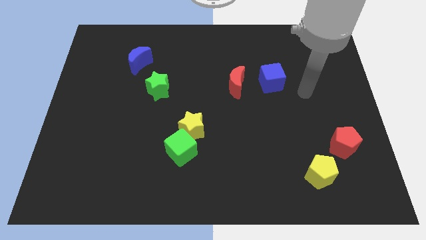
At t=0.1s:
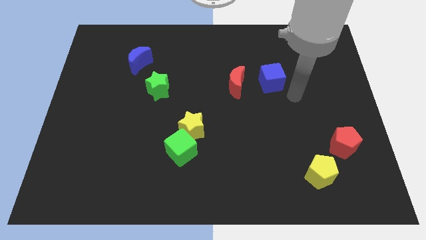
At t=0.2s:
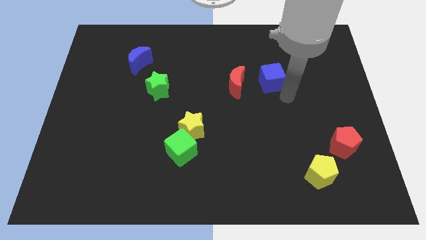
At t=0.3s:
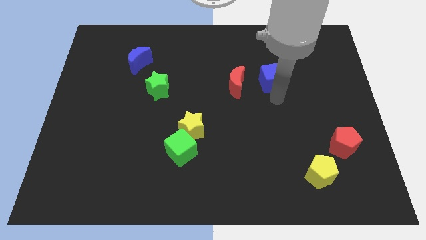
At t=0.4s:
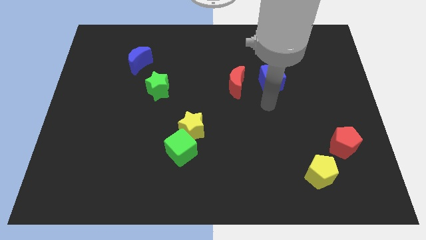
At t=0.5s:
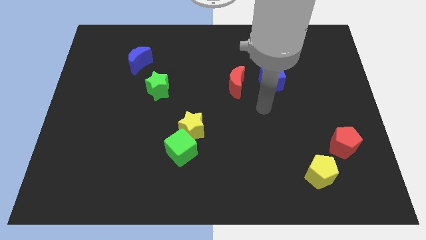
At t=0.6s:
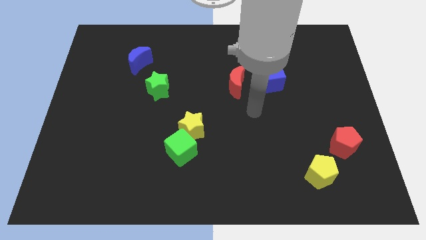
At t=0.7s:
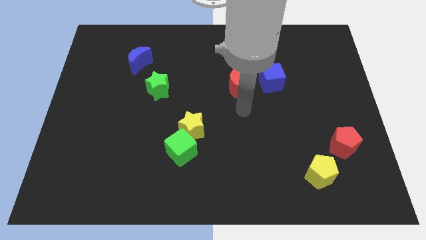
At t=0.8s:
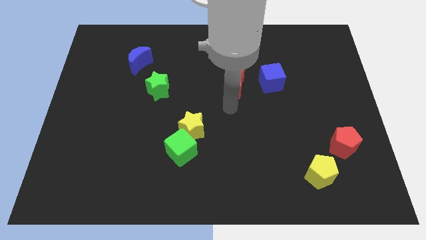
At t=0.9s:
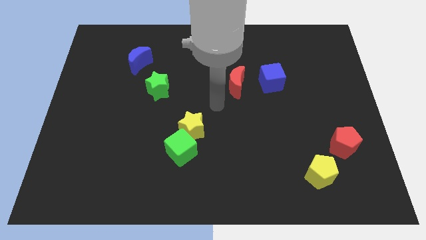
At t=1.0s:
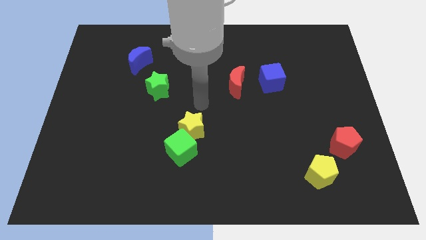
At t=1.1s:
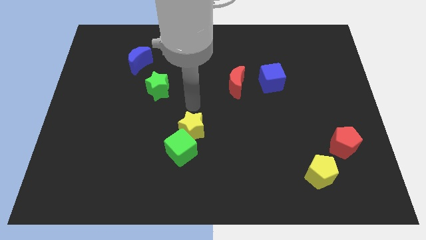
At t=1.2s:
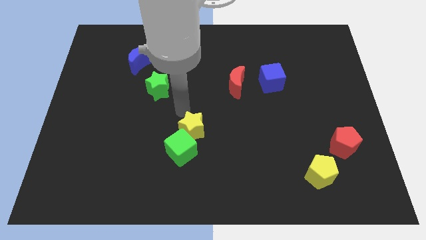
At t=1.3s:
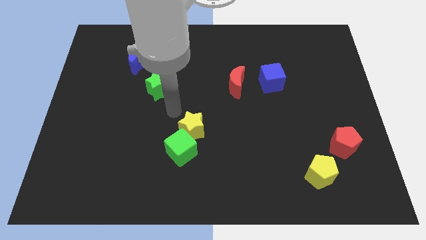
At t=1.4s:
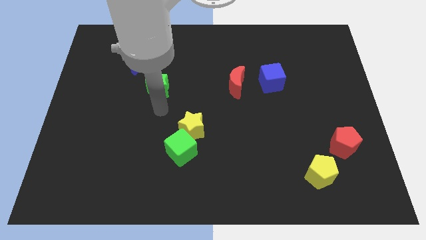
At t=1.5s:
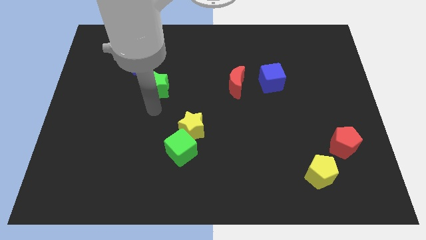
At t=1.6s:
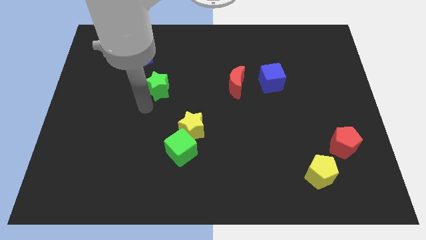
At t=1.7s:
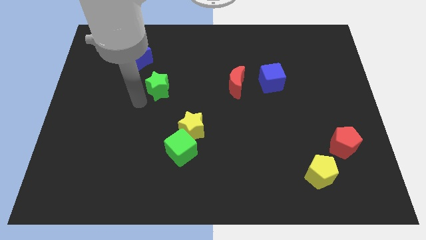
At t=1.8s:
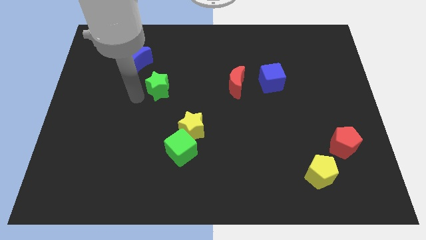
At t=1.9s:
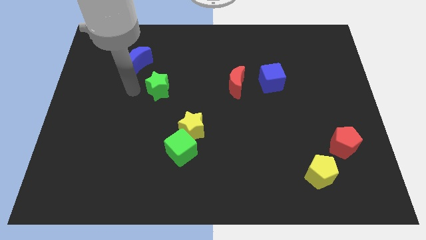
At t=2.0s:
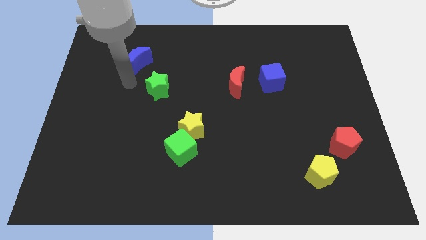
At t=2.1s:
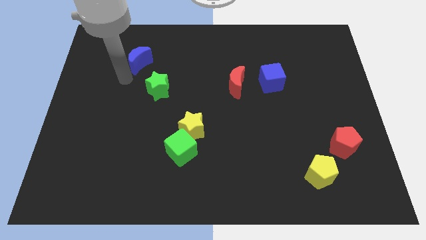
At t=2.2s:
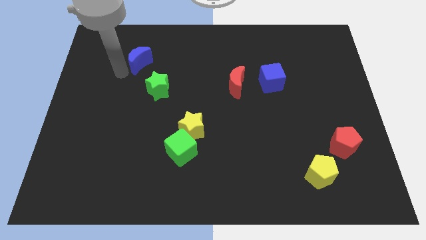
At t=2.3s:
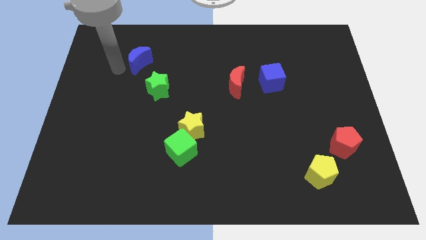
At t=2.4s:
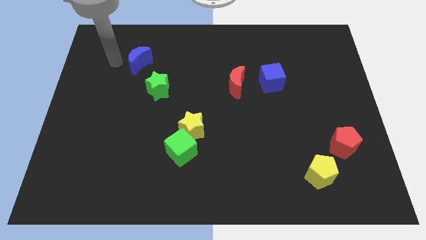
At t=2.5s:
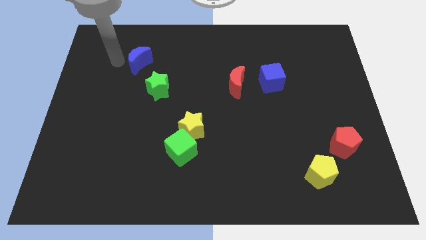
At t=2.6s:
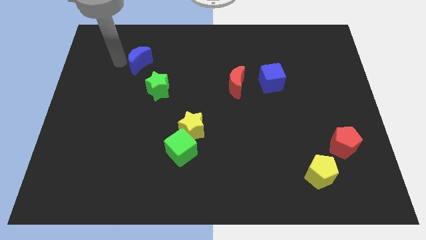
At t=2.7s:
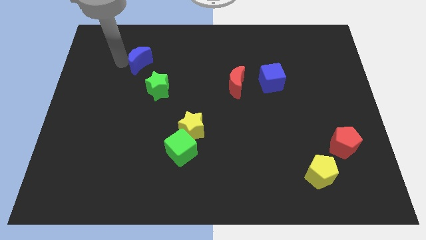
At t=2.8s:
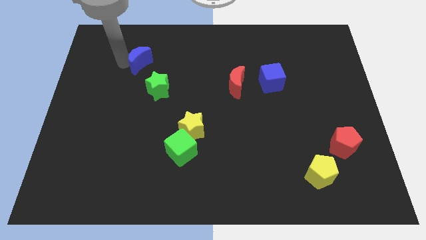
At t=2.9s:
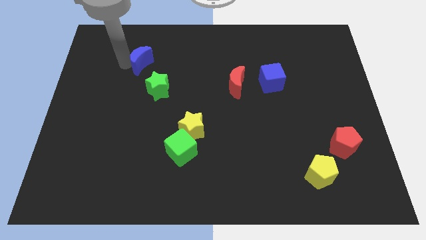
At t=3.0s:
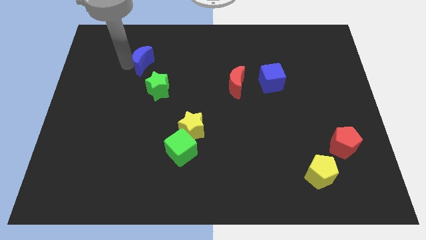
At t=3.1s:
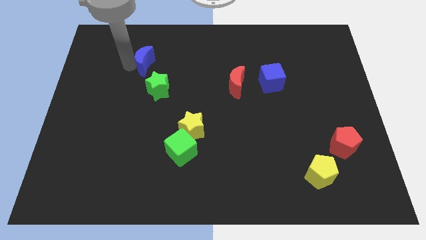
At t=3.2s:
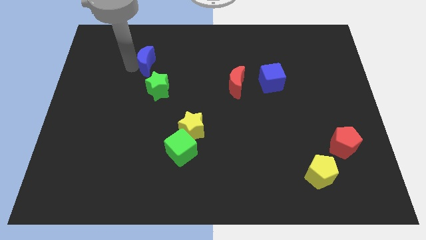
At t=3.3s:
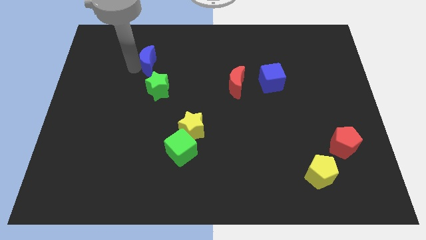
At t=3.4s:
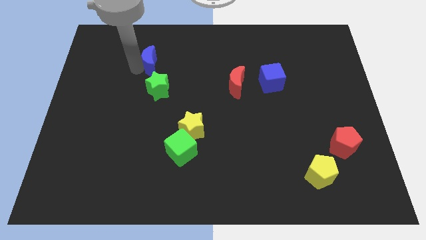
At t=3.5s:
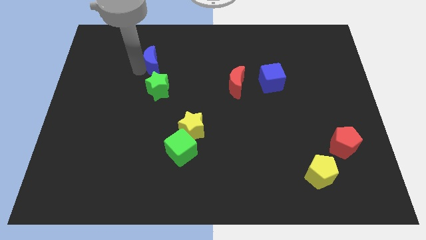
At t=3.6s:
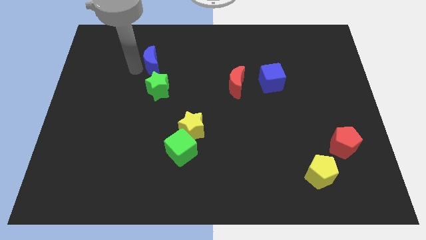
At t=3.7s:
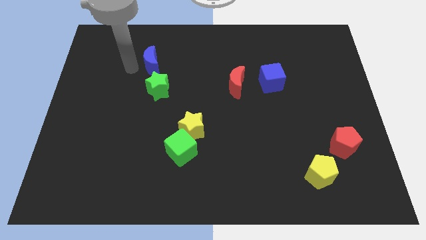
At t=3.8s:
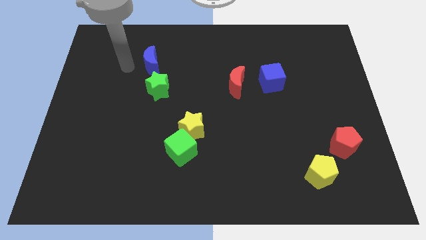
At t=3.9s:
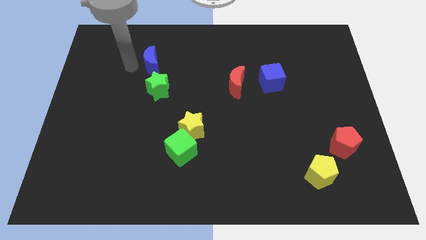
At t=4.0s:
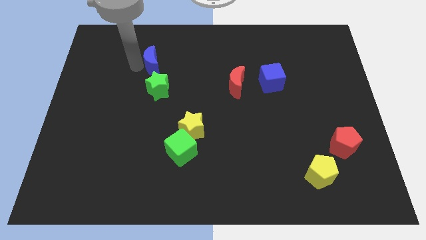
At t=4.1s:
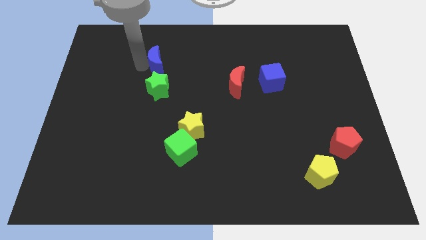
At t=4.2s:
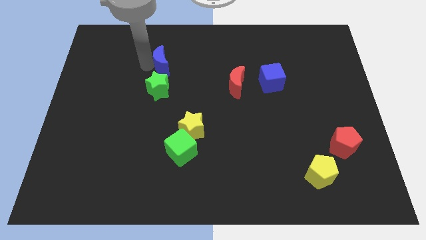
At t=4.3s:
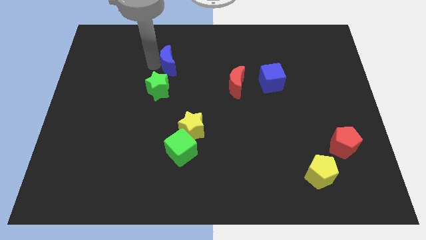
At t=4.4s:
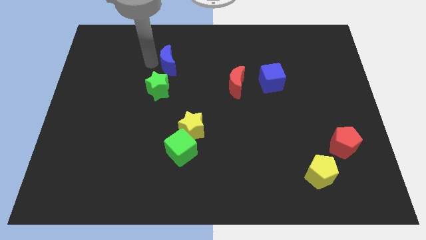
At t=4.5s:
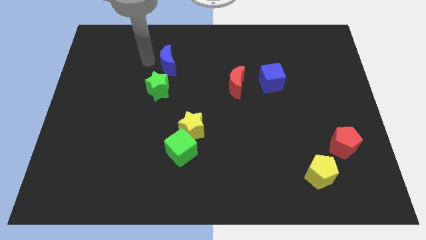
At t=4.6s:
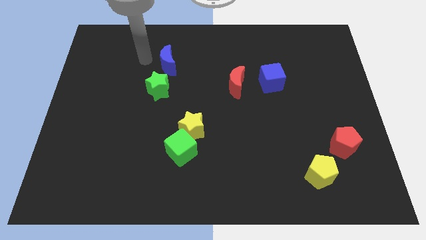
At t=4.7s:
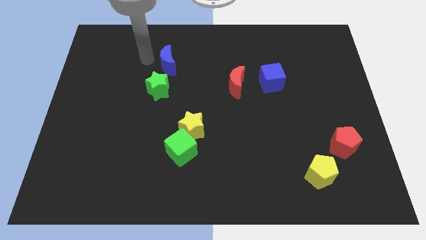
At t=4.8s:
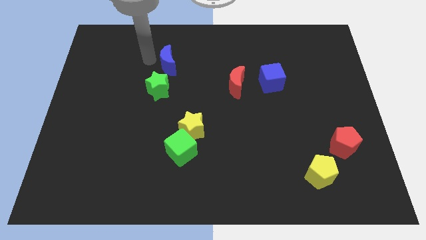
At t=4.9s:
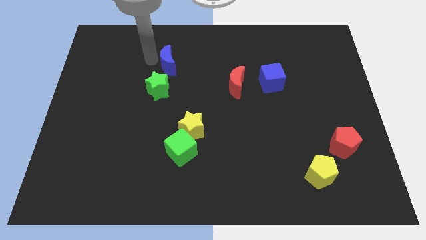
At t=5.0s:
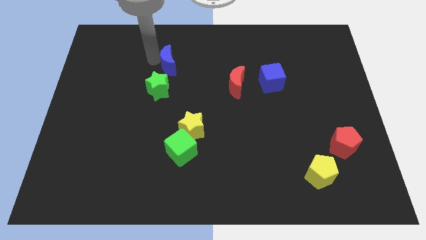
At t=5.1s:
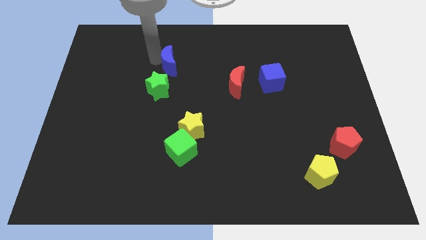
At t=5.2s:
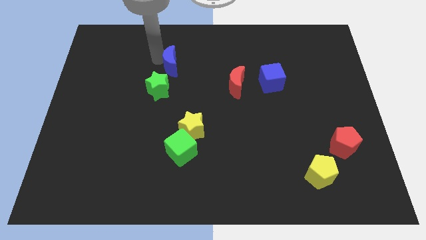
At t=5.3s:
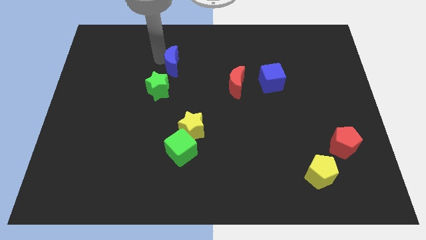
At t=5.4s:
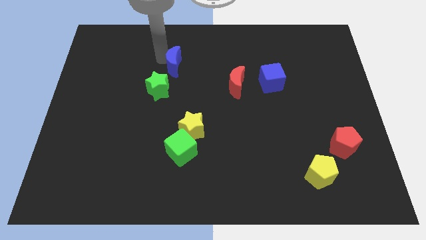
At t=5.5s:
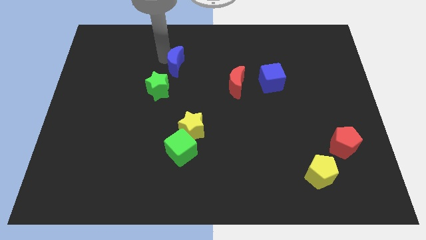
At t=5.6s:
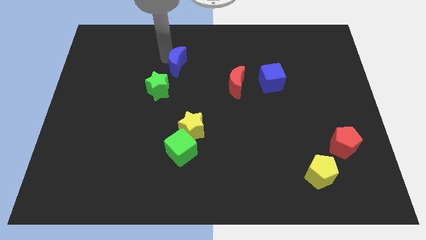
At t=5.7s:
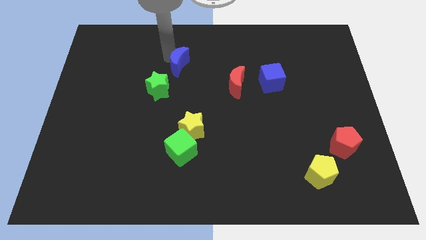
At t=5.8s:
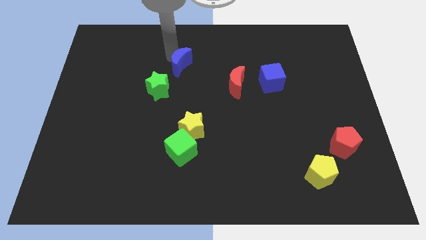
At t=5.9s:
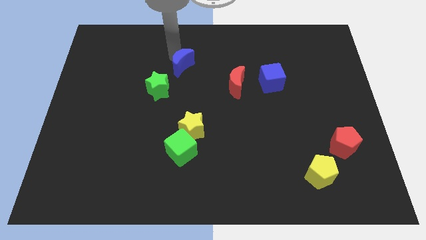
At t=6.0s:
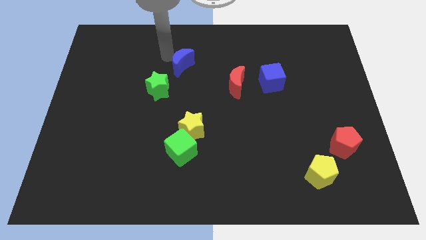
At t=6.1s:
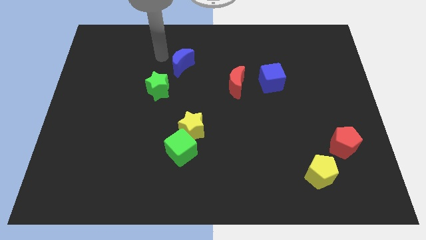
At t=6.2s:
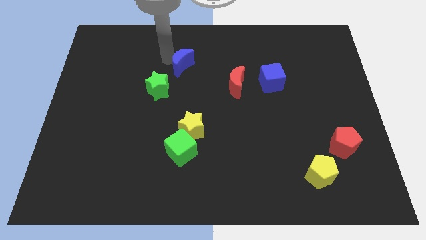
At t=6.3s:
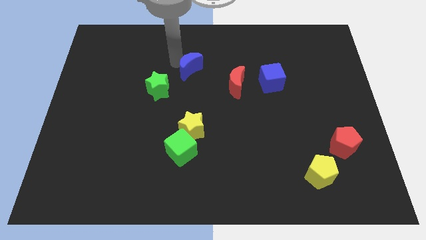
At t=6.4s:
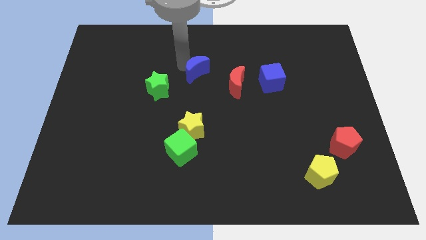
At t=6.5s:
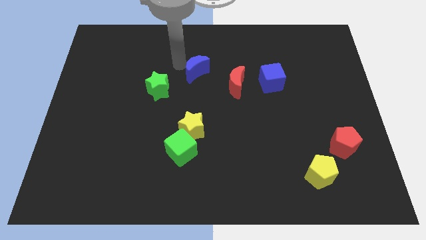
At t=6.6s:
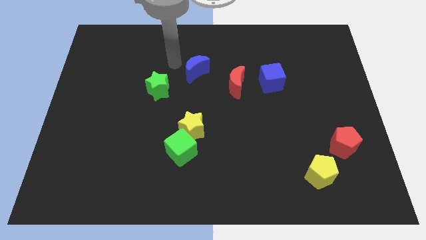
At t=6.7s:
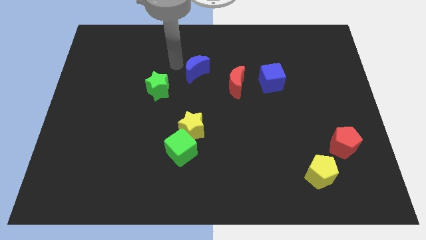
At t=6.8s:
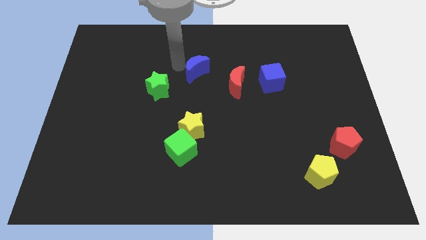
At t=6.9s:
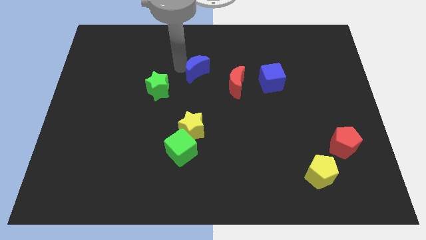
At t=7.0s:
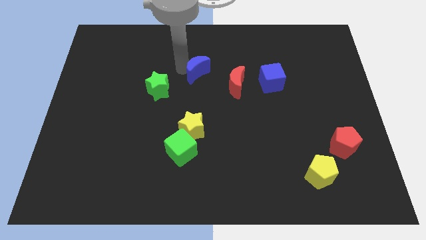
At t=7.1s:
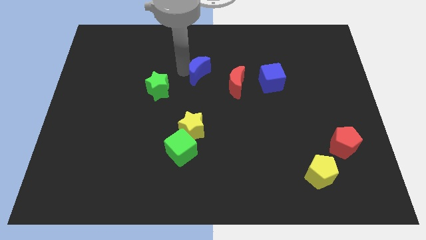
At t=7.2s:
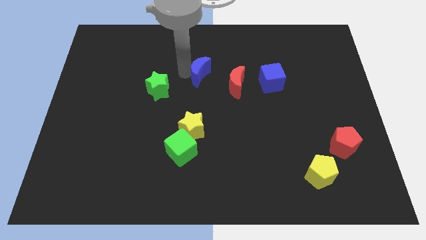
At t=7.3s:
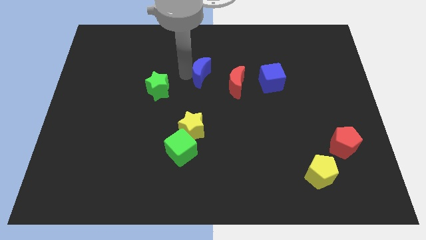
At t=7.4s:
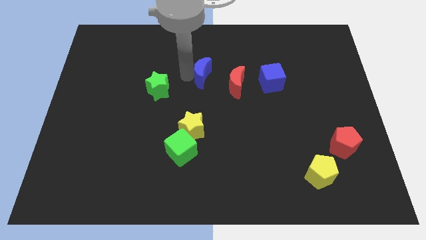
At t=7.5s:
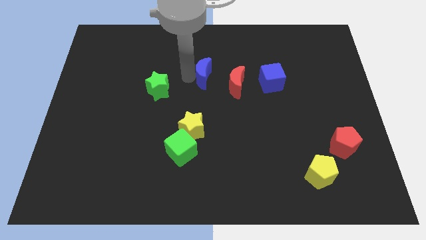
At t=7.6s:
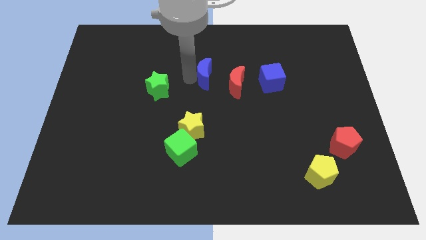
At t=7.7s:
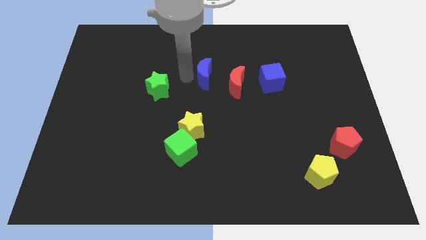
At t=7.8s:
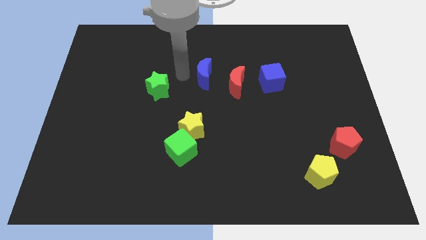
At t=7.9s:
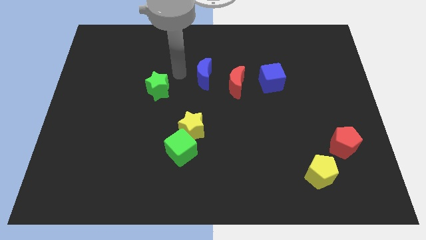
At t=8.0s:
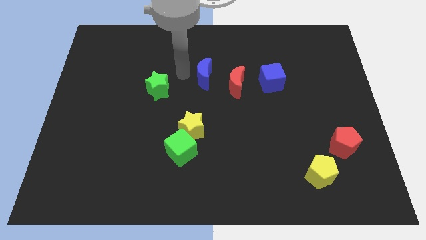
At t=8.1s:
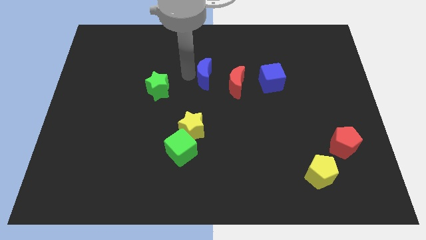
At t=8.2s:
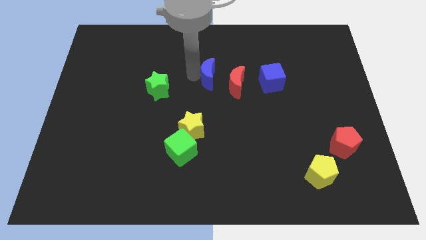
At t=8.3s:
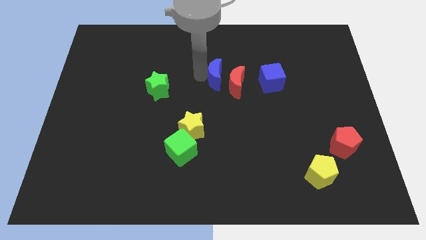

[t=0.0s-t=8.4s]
slide the blue moon towards the red moon
